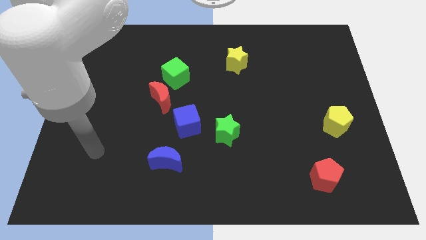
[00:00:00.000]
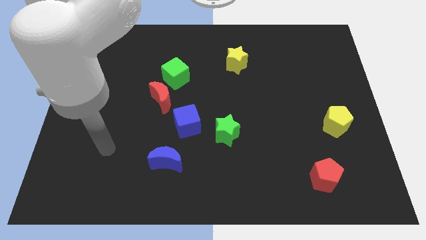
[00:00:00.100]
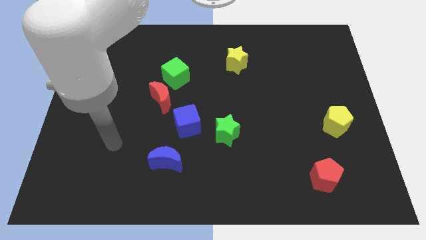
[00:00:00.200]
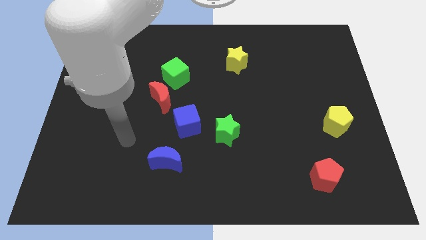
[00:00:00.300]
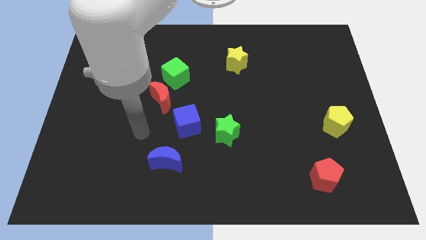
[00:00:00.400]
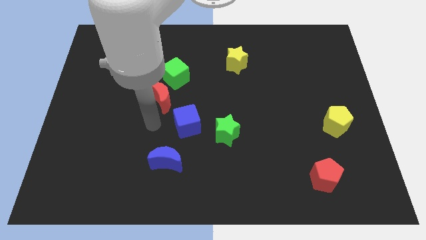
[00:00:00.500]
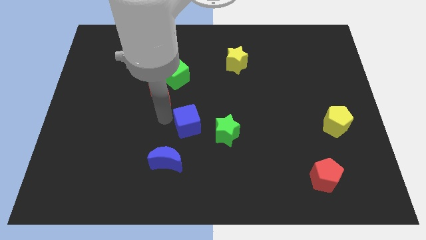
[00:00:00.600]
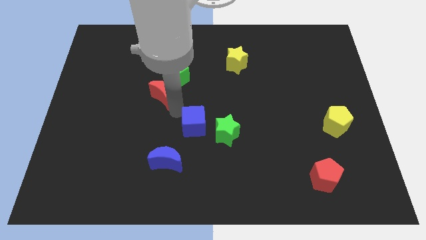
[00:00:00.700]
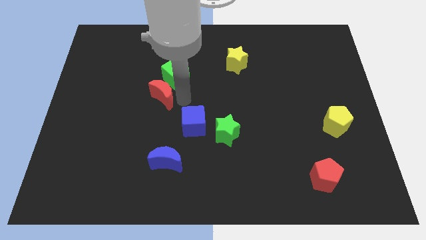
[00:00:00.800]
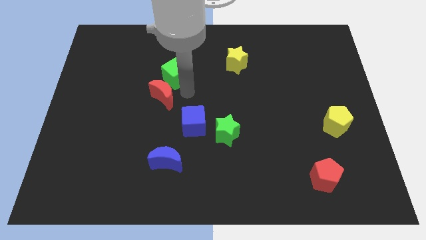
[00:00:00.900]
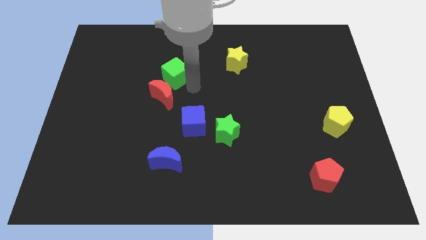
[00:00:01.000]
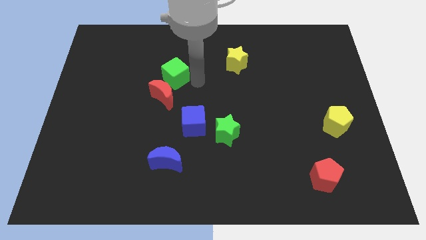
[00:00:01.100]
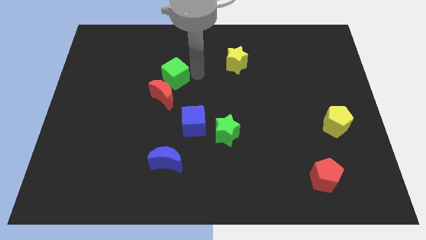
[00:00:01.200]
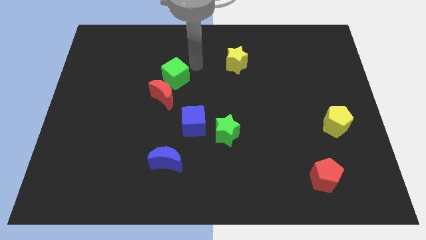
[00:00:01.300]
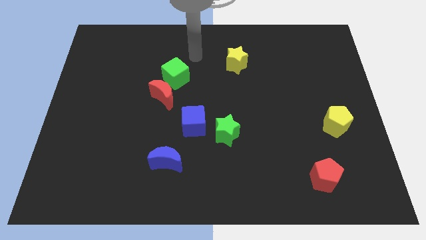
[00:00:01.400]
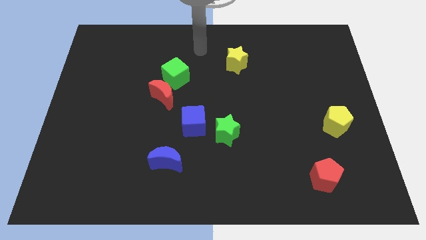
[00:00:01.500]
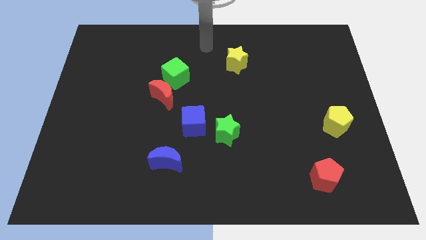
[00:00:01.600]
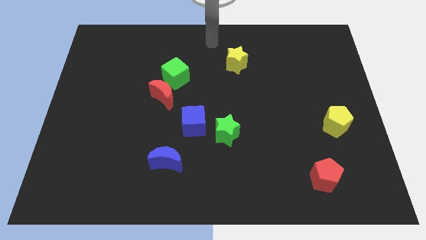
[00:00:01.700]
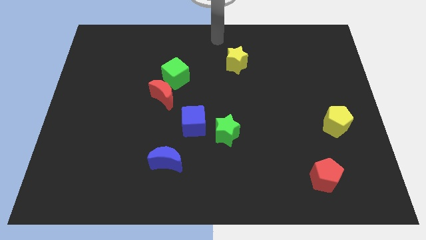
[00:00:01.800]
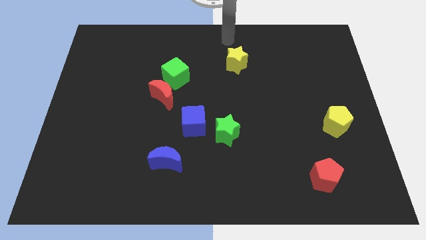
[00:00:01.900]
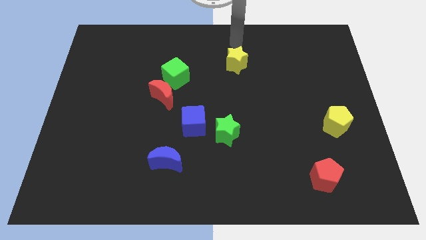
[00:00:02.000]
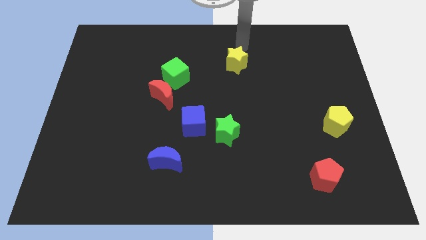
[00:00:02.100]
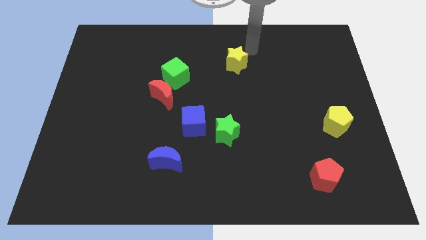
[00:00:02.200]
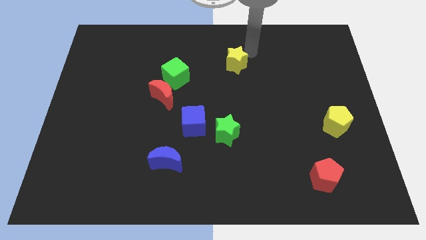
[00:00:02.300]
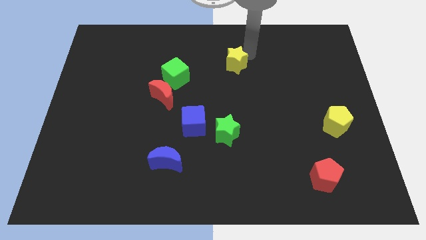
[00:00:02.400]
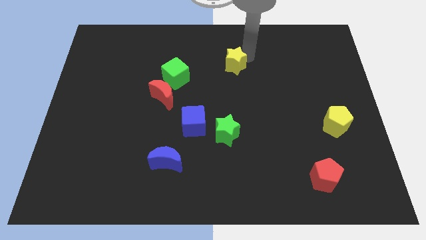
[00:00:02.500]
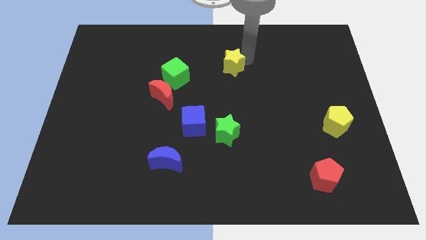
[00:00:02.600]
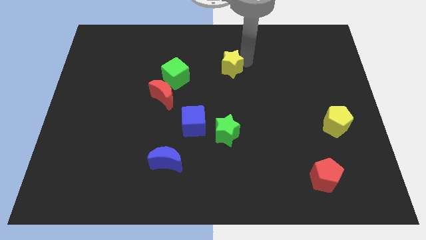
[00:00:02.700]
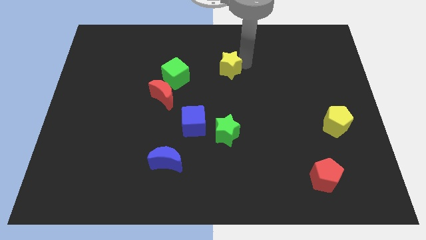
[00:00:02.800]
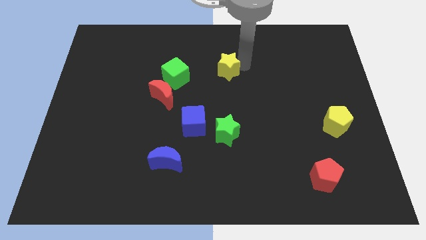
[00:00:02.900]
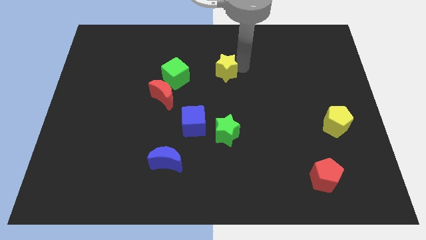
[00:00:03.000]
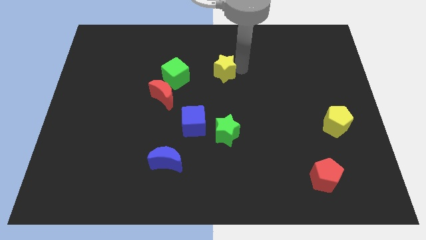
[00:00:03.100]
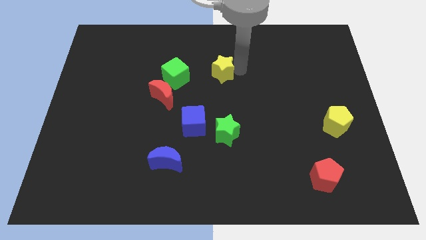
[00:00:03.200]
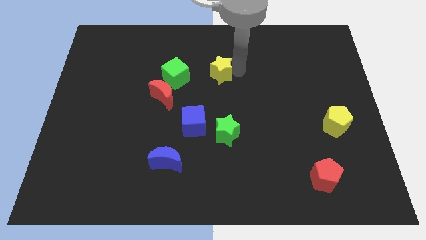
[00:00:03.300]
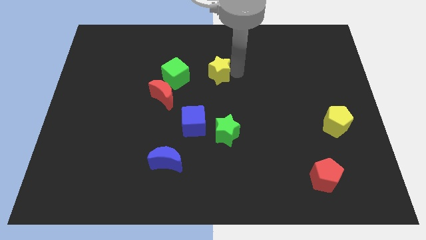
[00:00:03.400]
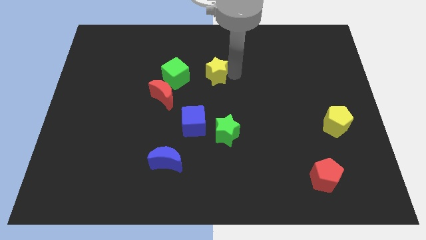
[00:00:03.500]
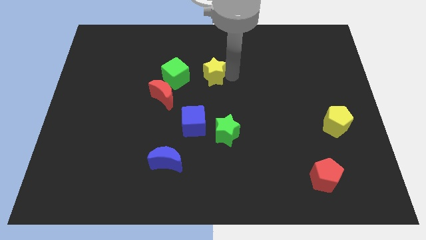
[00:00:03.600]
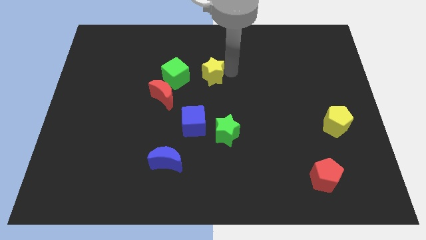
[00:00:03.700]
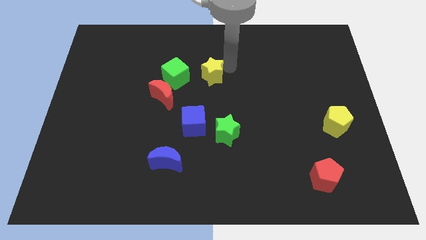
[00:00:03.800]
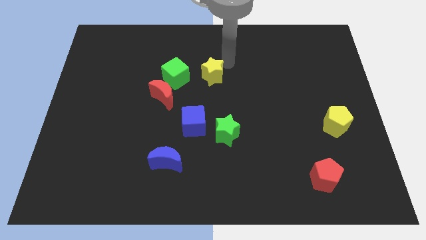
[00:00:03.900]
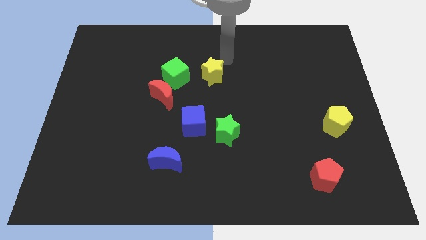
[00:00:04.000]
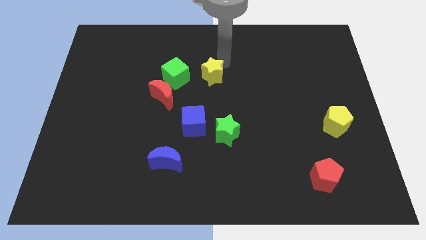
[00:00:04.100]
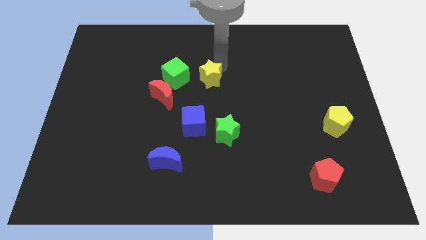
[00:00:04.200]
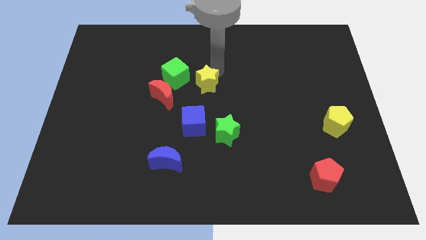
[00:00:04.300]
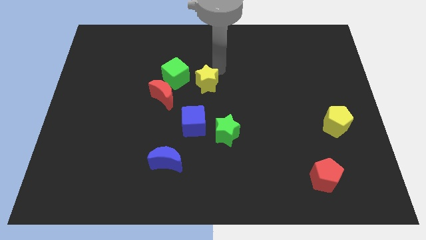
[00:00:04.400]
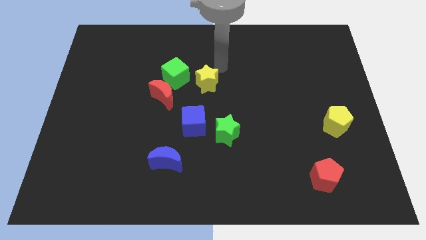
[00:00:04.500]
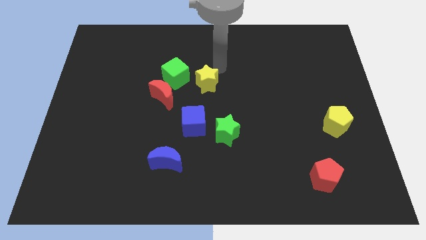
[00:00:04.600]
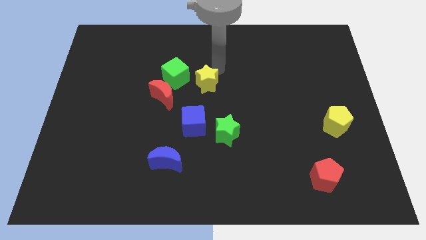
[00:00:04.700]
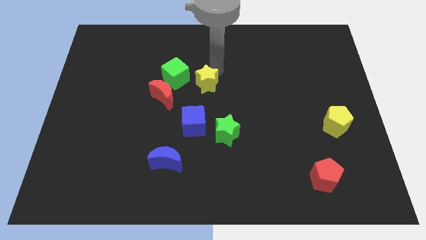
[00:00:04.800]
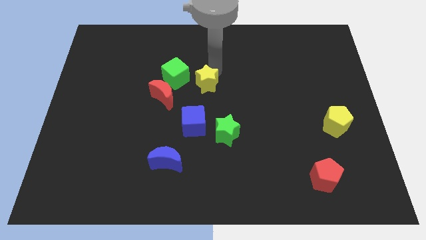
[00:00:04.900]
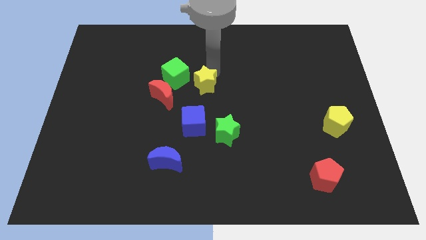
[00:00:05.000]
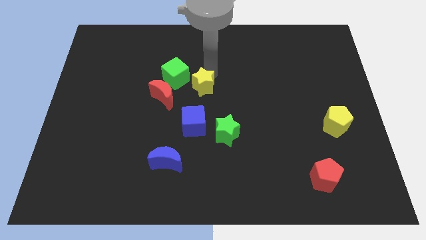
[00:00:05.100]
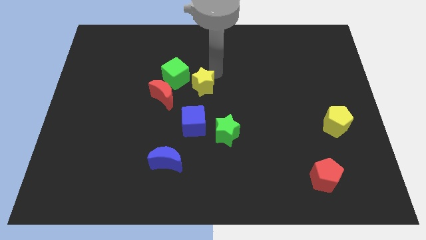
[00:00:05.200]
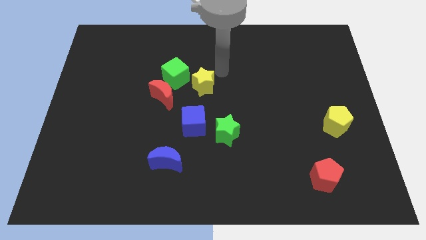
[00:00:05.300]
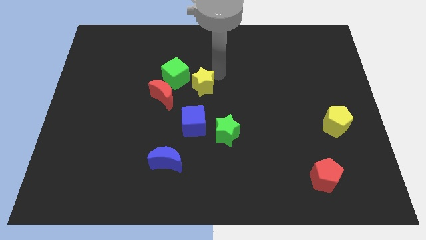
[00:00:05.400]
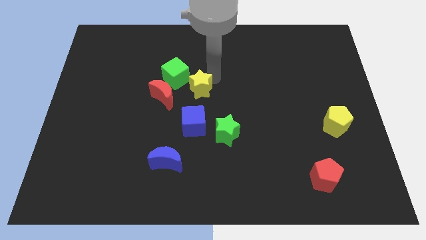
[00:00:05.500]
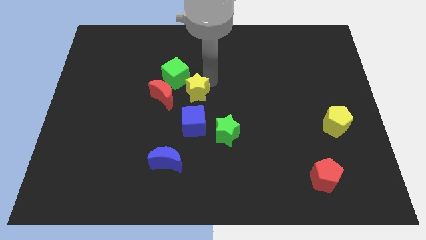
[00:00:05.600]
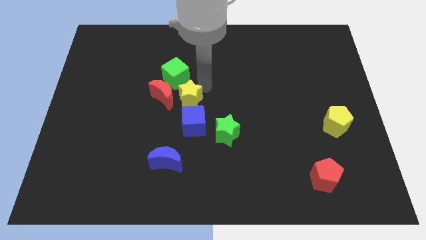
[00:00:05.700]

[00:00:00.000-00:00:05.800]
push the yellow star below the green cube
